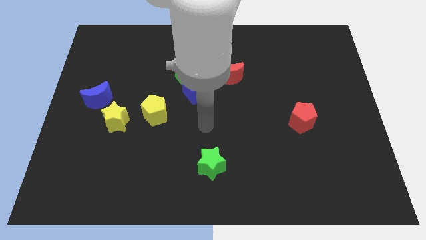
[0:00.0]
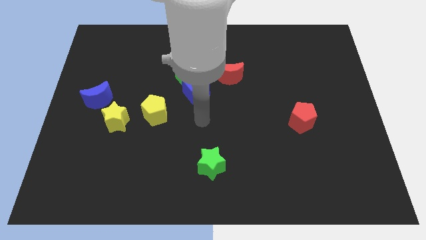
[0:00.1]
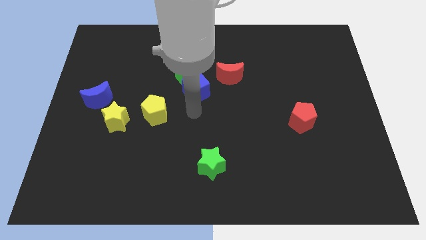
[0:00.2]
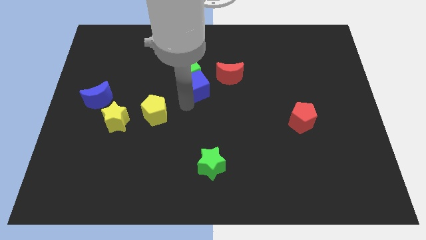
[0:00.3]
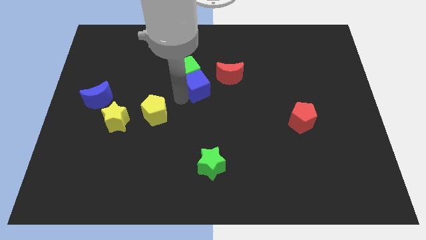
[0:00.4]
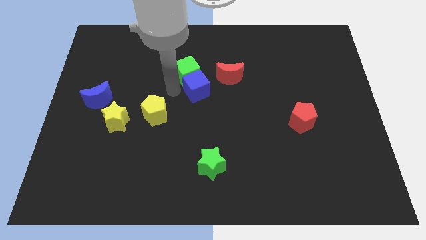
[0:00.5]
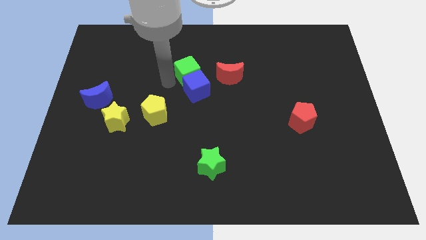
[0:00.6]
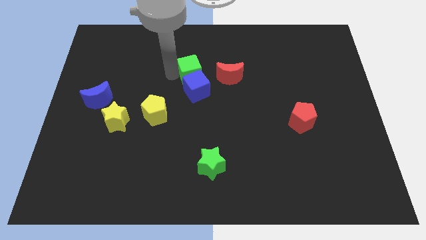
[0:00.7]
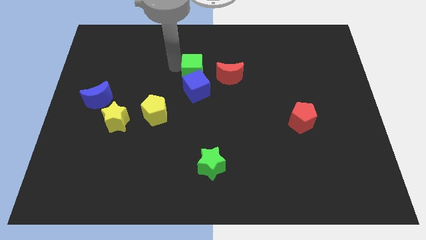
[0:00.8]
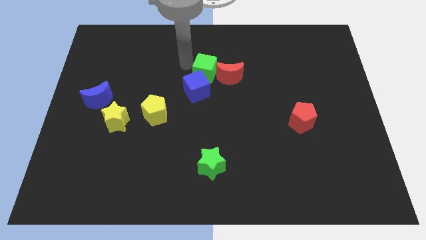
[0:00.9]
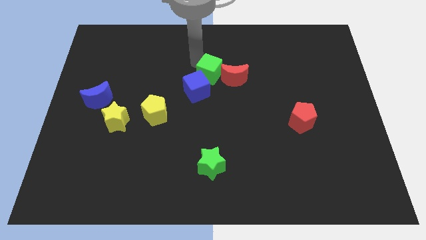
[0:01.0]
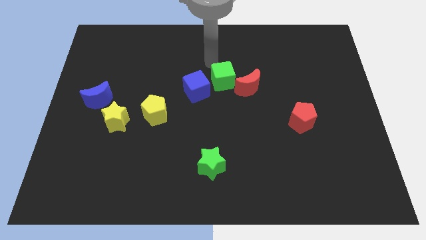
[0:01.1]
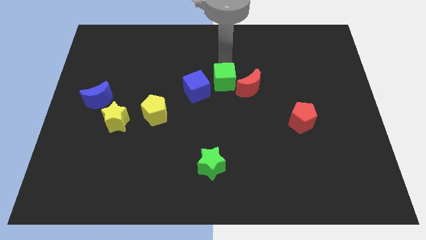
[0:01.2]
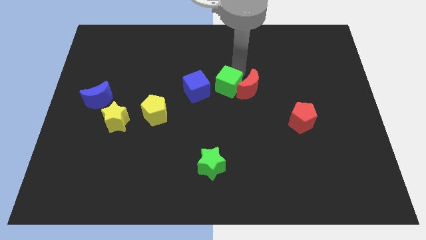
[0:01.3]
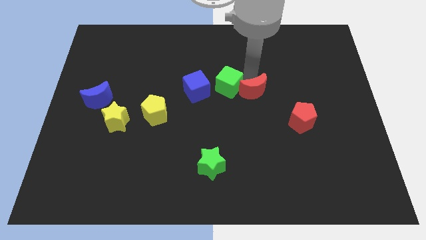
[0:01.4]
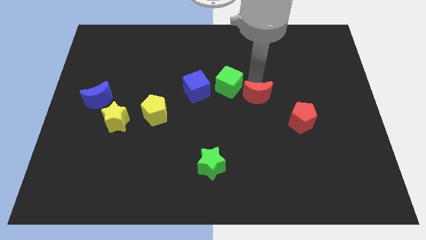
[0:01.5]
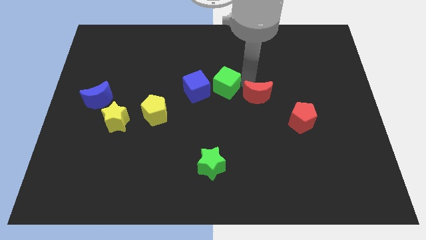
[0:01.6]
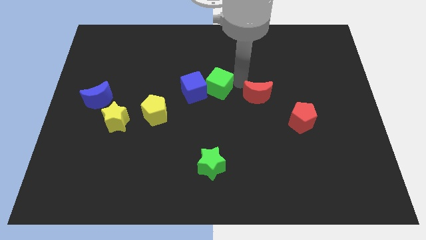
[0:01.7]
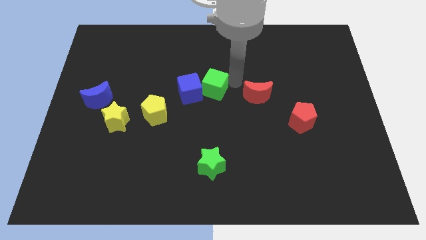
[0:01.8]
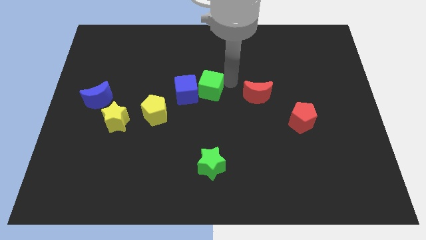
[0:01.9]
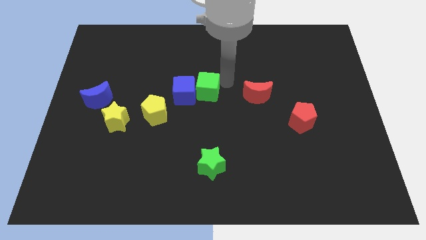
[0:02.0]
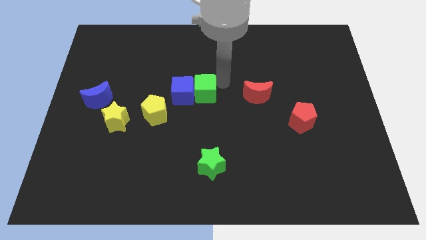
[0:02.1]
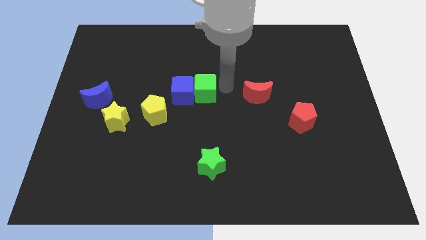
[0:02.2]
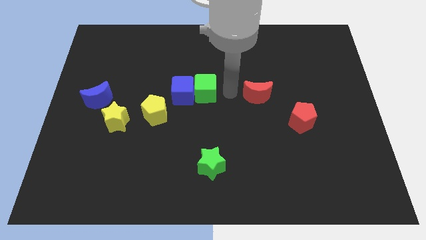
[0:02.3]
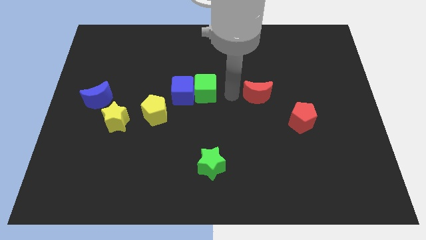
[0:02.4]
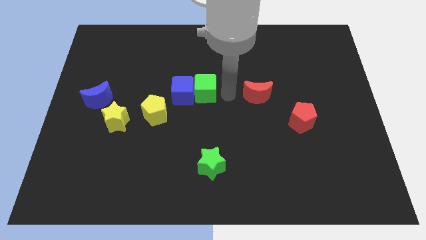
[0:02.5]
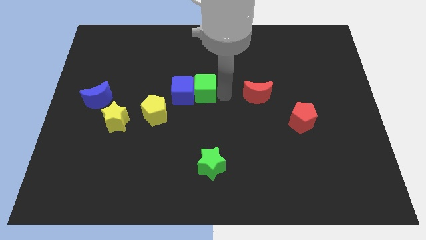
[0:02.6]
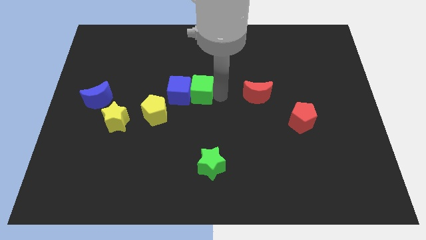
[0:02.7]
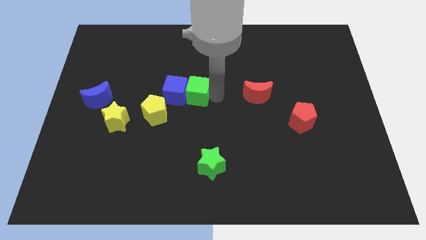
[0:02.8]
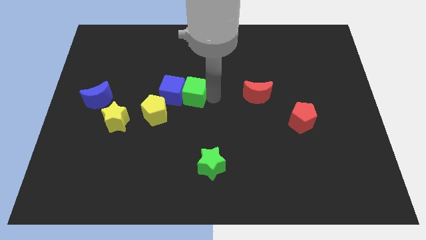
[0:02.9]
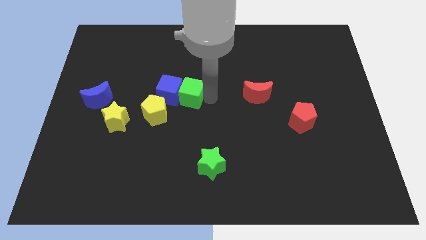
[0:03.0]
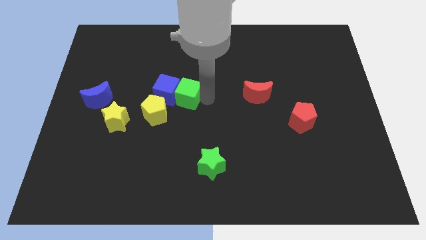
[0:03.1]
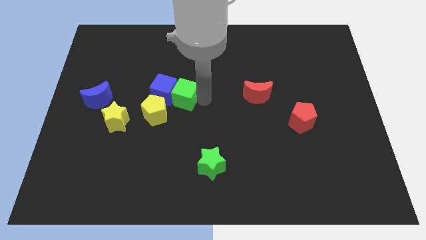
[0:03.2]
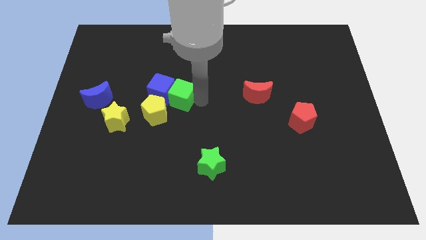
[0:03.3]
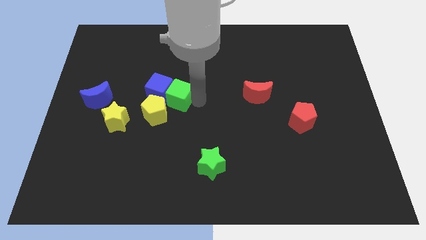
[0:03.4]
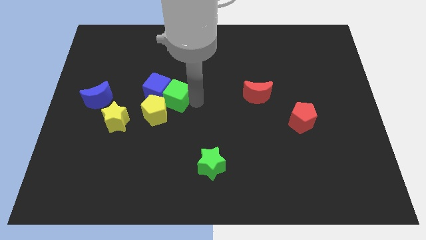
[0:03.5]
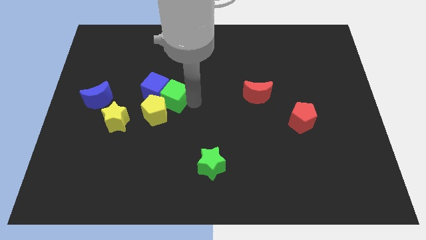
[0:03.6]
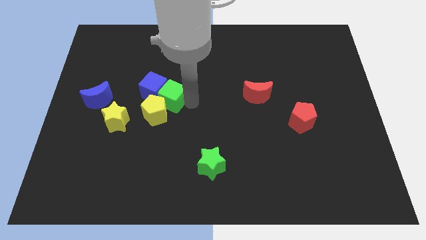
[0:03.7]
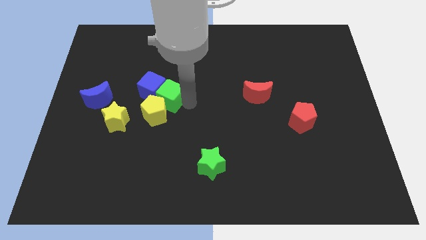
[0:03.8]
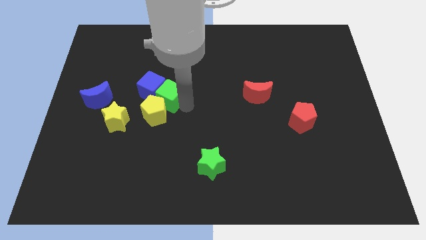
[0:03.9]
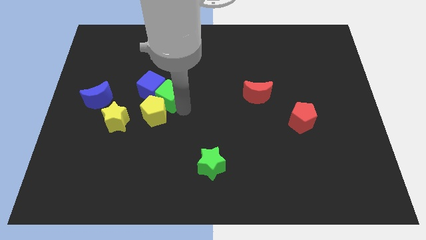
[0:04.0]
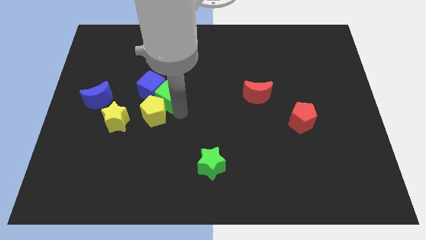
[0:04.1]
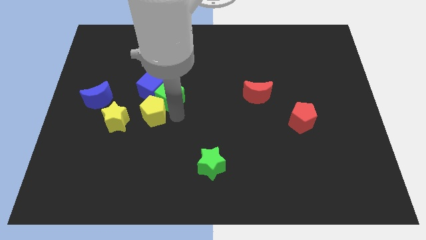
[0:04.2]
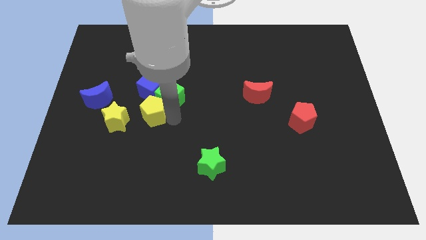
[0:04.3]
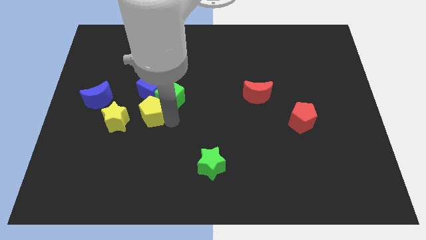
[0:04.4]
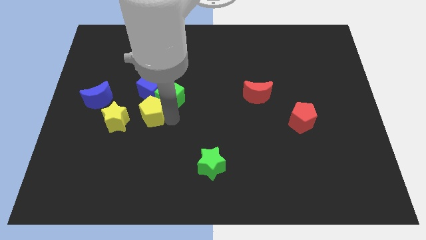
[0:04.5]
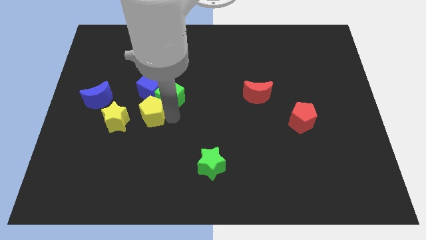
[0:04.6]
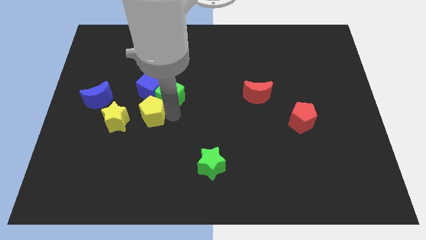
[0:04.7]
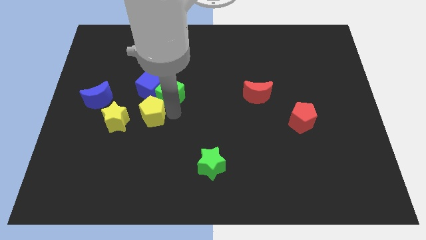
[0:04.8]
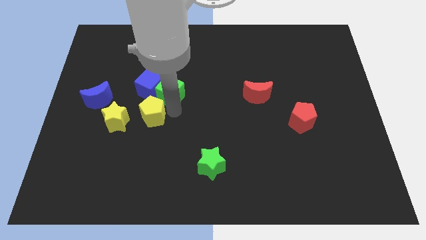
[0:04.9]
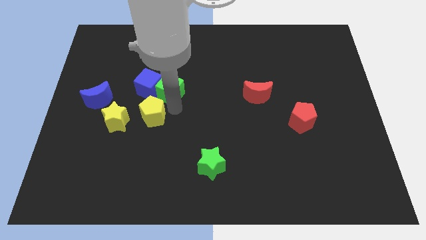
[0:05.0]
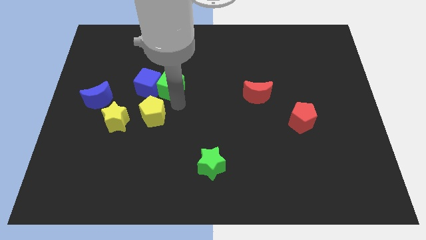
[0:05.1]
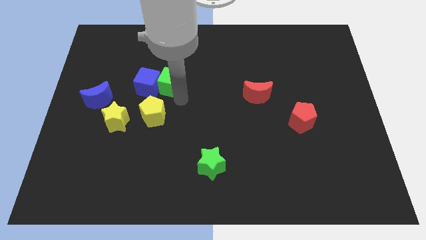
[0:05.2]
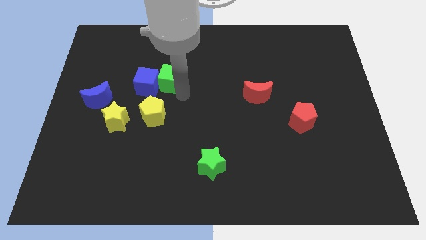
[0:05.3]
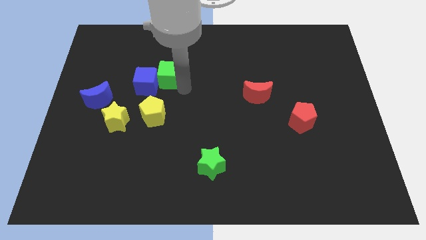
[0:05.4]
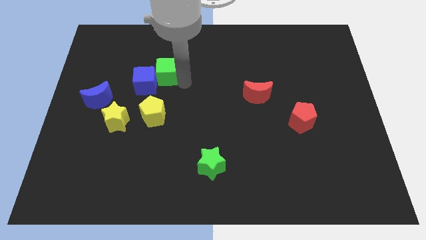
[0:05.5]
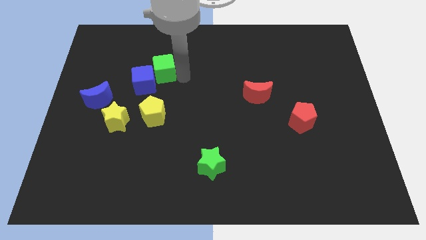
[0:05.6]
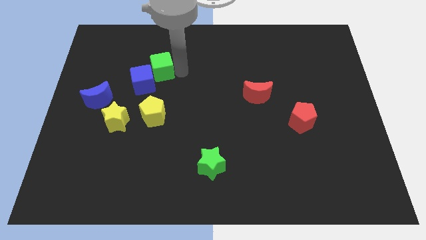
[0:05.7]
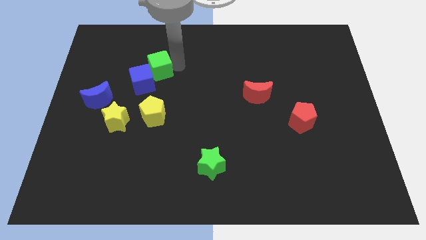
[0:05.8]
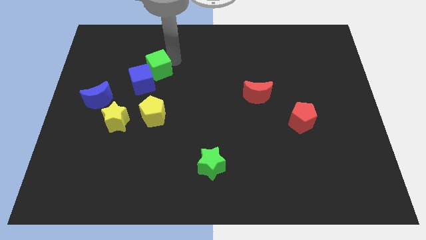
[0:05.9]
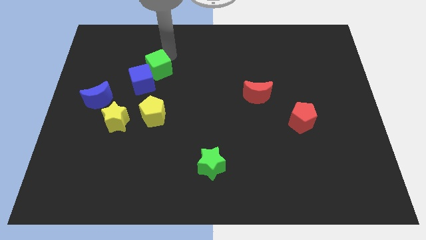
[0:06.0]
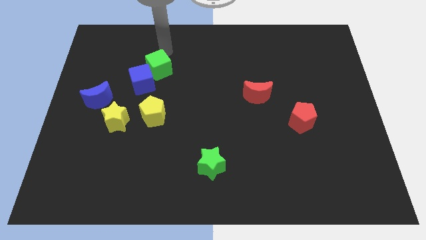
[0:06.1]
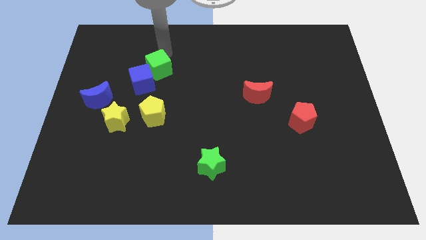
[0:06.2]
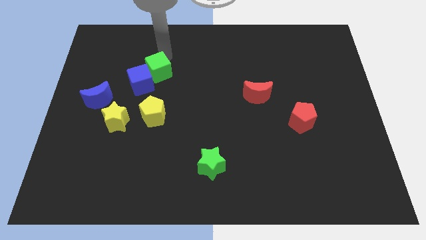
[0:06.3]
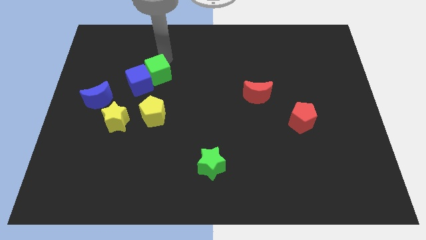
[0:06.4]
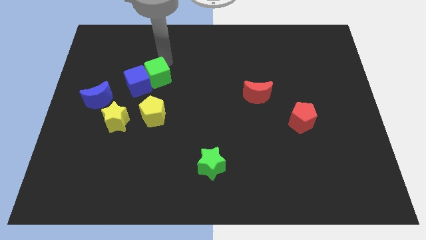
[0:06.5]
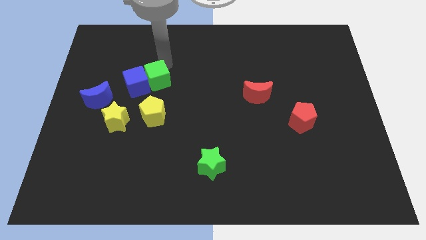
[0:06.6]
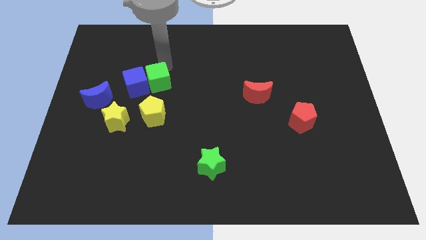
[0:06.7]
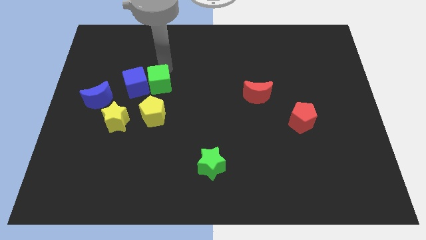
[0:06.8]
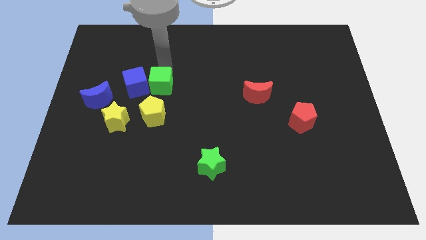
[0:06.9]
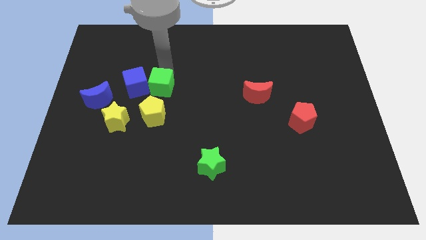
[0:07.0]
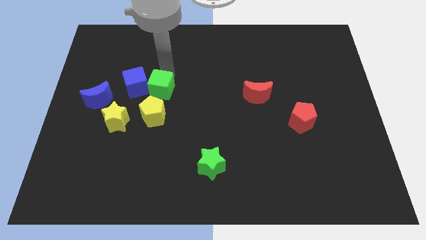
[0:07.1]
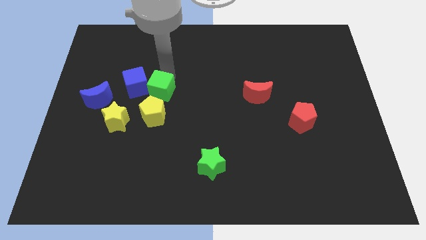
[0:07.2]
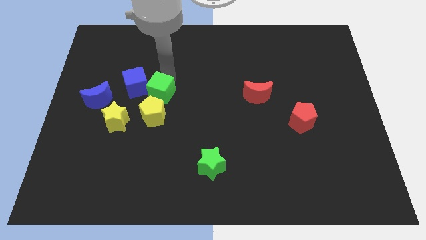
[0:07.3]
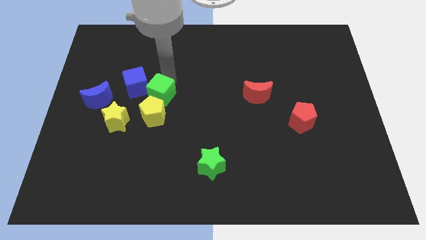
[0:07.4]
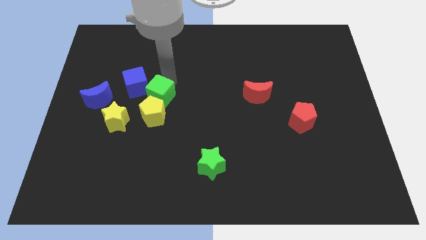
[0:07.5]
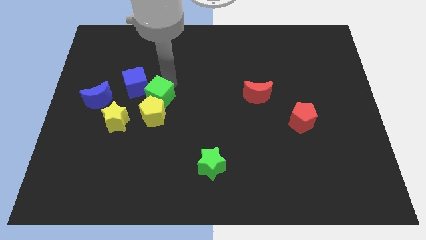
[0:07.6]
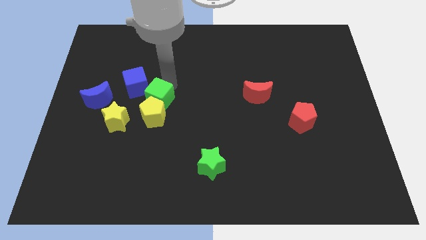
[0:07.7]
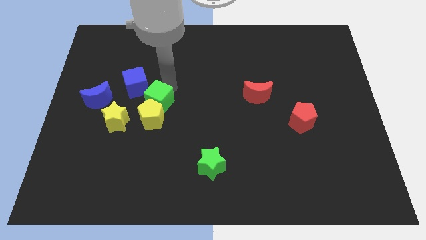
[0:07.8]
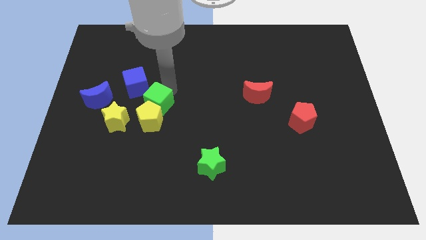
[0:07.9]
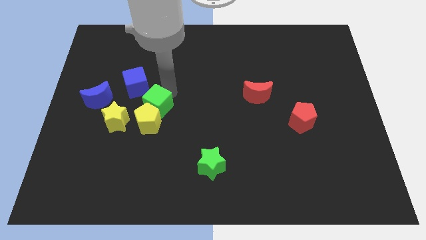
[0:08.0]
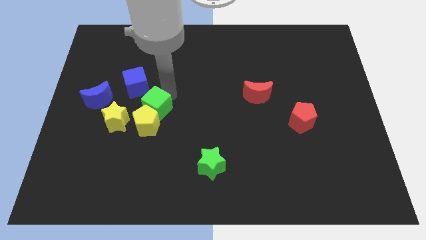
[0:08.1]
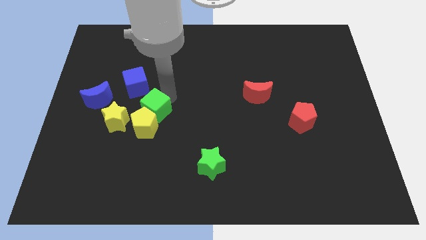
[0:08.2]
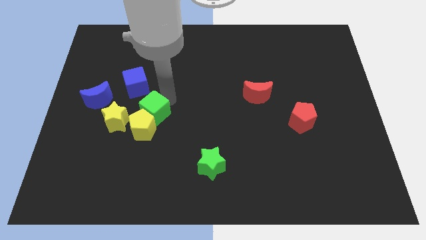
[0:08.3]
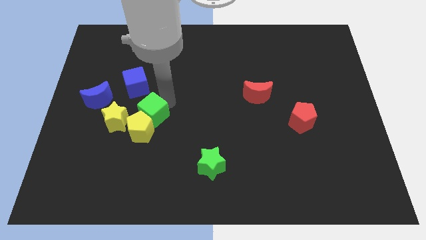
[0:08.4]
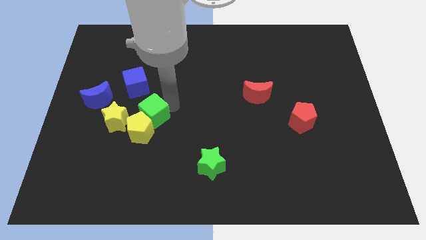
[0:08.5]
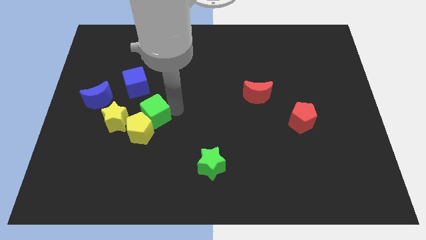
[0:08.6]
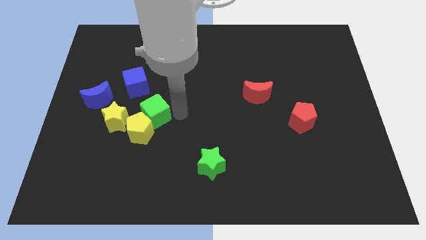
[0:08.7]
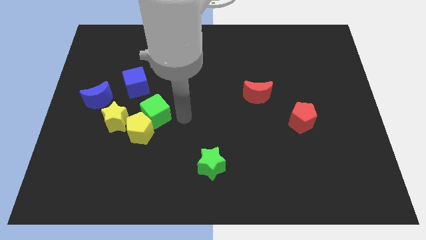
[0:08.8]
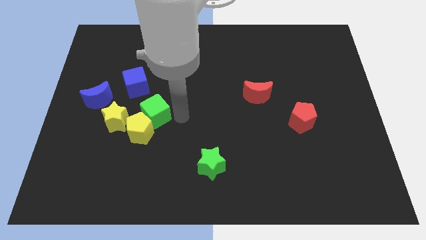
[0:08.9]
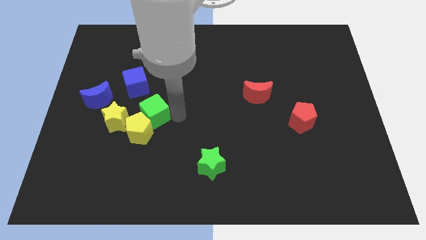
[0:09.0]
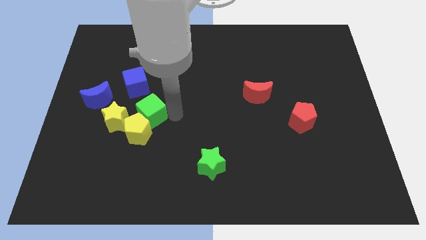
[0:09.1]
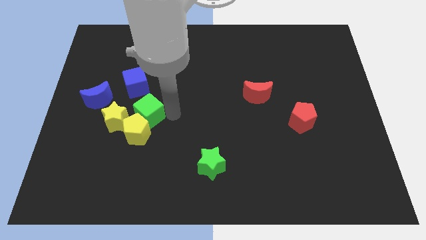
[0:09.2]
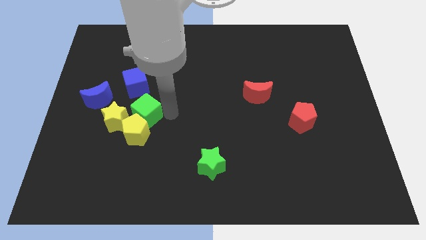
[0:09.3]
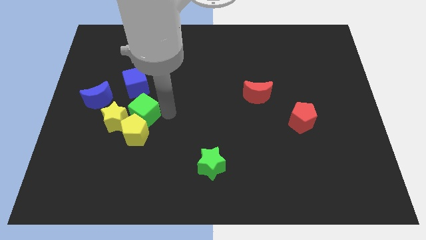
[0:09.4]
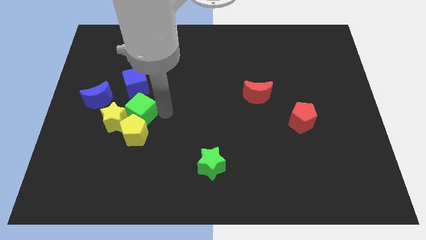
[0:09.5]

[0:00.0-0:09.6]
move the green cube close to the yellow star
